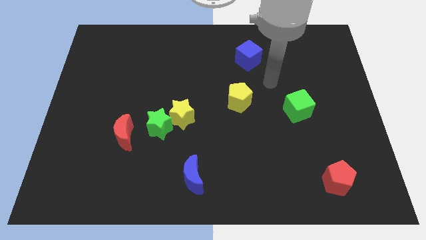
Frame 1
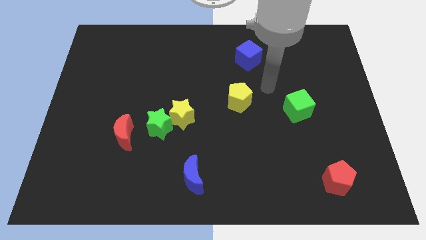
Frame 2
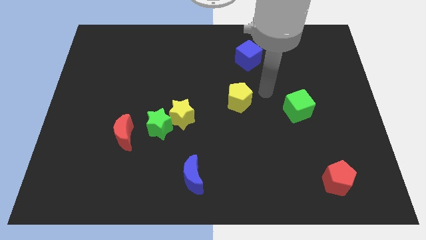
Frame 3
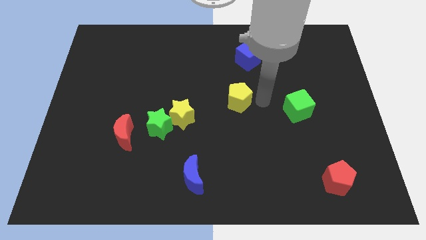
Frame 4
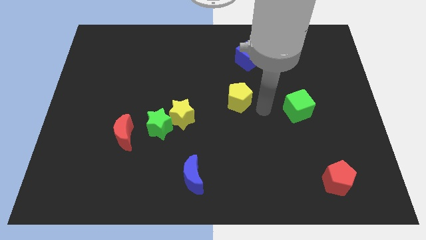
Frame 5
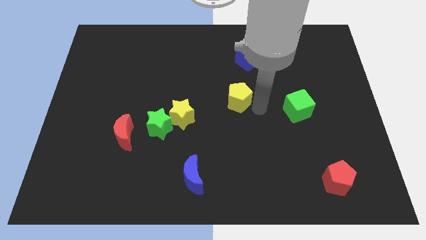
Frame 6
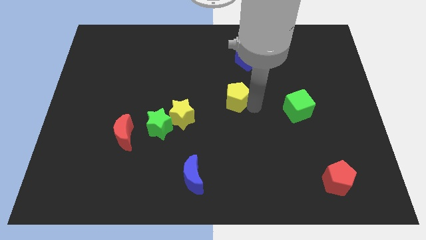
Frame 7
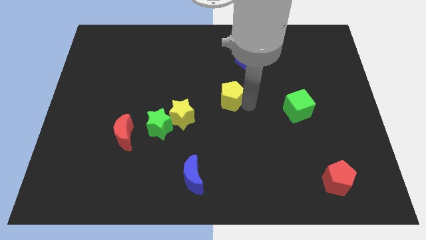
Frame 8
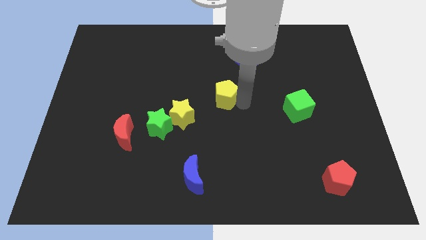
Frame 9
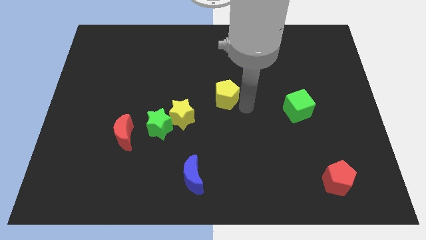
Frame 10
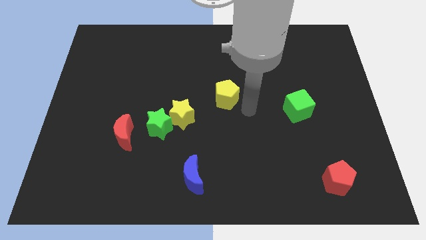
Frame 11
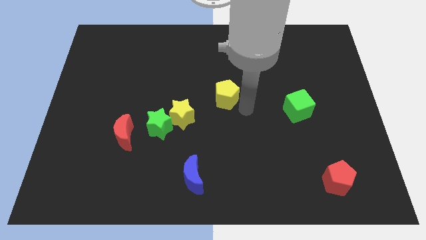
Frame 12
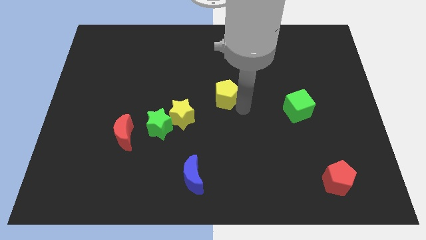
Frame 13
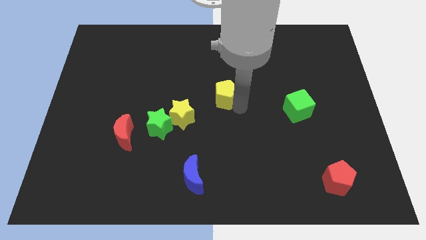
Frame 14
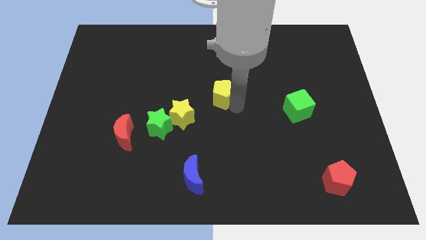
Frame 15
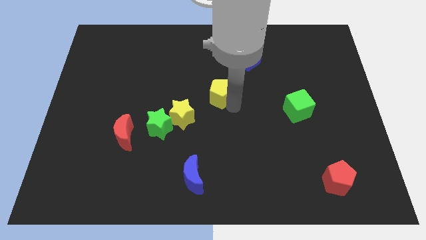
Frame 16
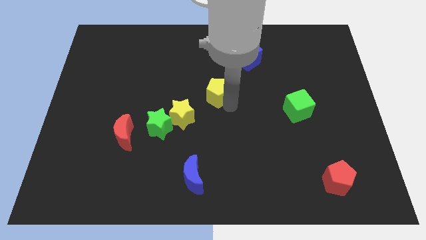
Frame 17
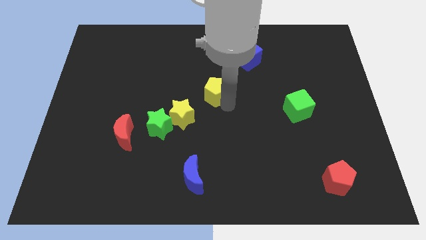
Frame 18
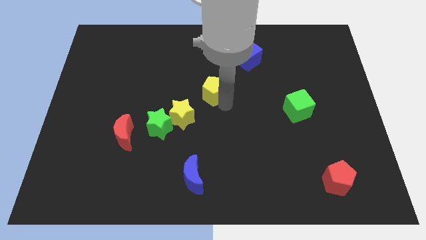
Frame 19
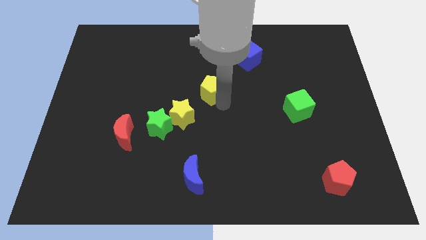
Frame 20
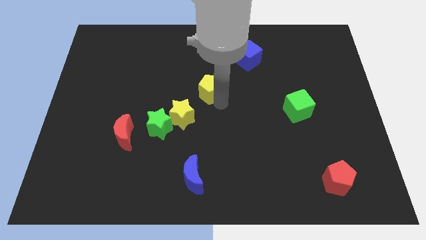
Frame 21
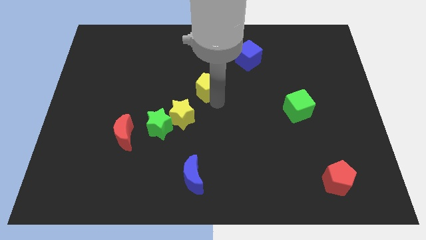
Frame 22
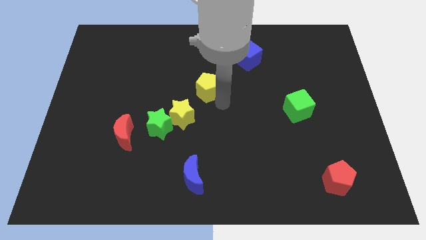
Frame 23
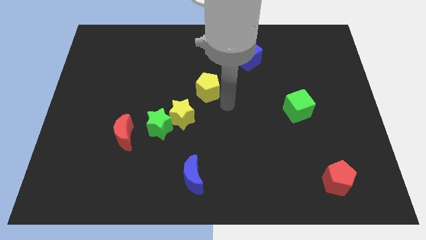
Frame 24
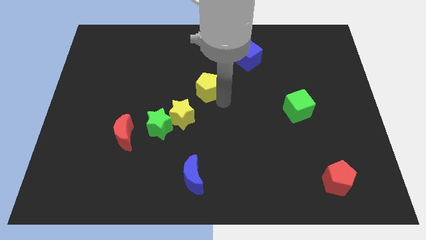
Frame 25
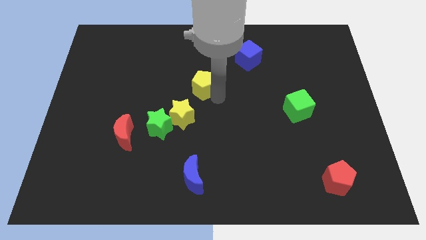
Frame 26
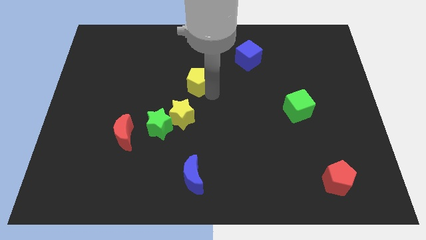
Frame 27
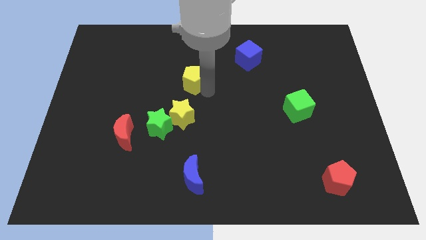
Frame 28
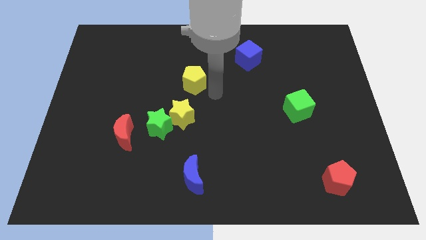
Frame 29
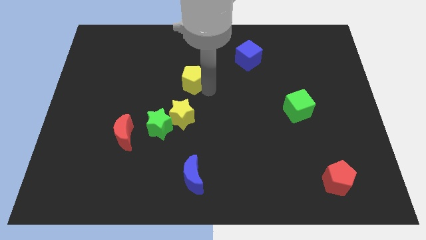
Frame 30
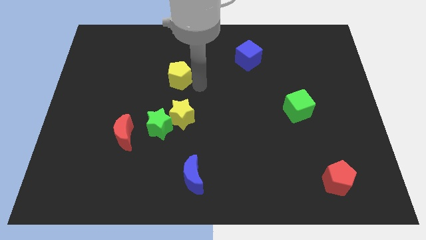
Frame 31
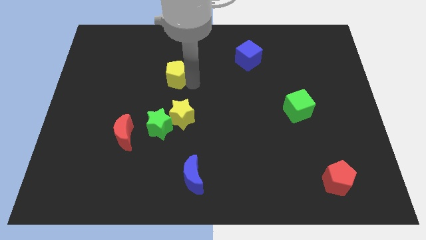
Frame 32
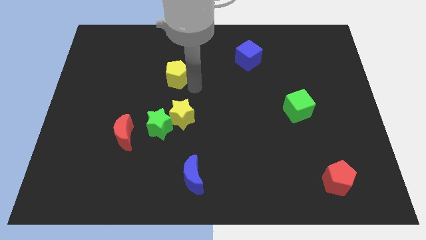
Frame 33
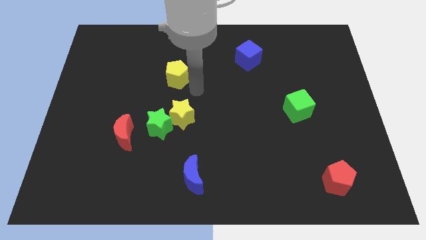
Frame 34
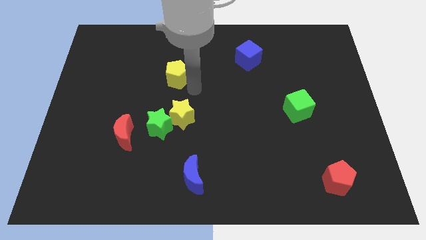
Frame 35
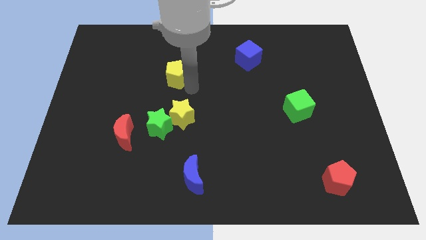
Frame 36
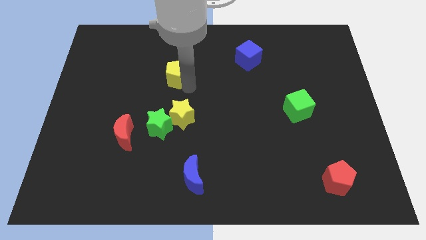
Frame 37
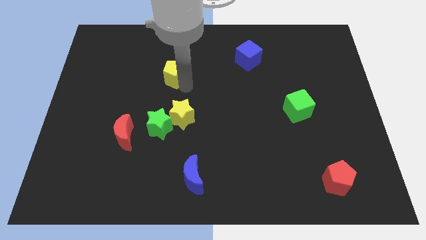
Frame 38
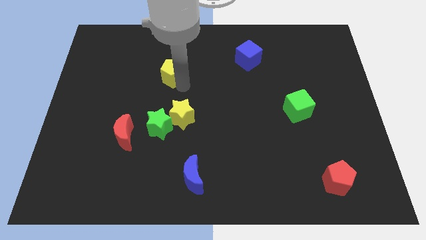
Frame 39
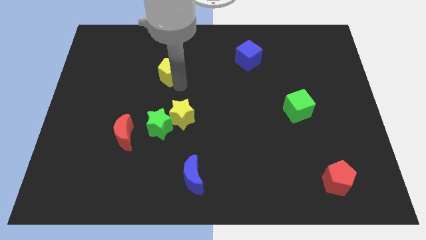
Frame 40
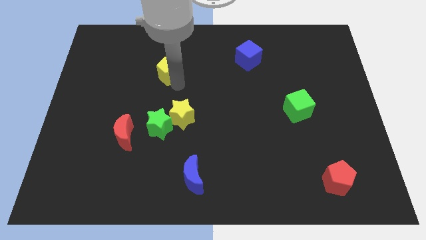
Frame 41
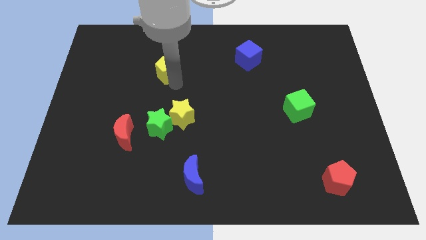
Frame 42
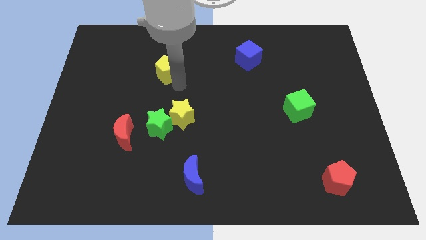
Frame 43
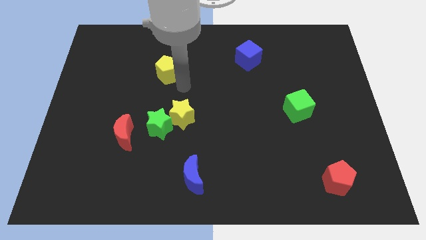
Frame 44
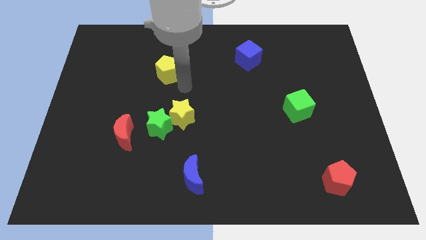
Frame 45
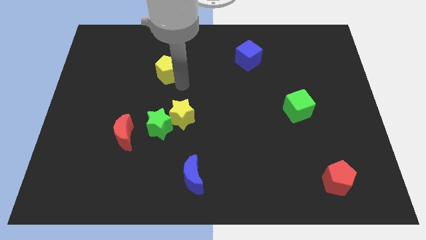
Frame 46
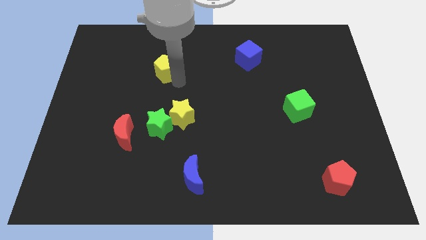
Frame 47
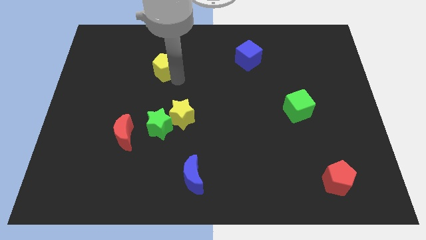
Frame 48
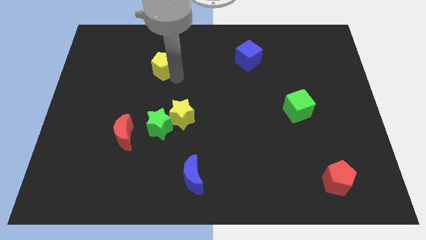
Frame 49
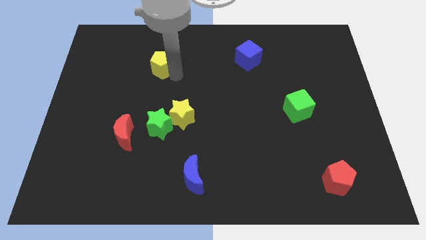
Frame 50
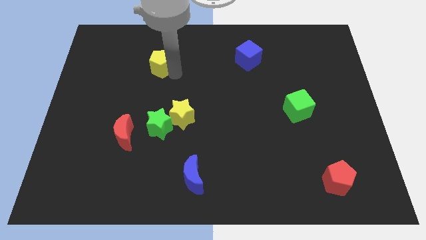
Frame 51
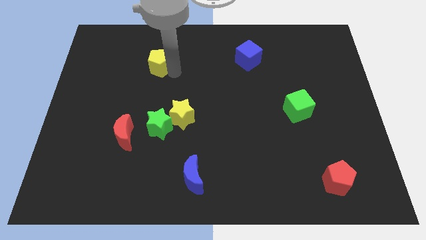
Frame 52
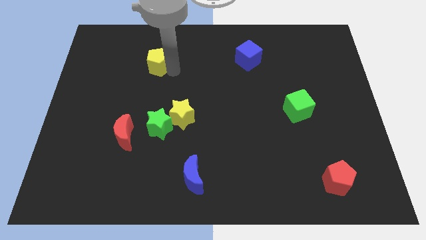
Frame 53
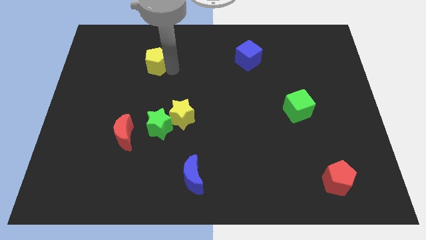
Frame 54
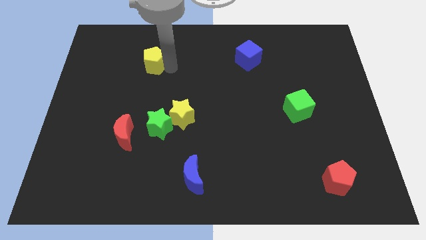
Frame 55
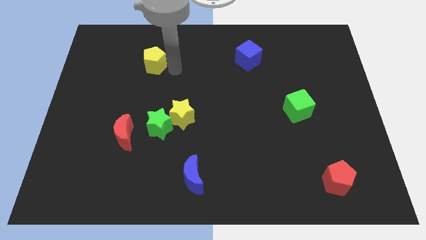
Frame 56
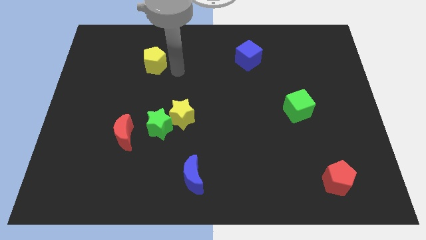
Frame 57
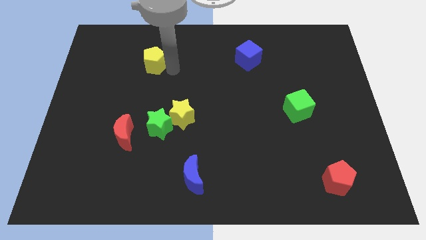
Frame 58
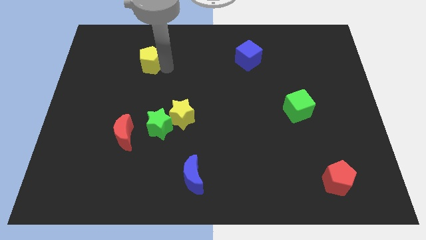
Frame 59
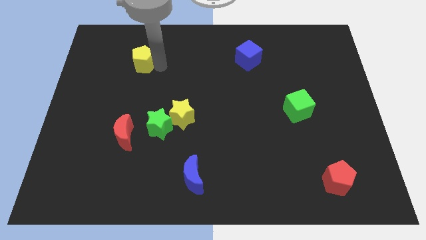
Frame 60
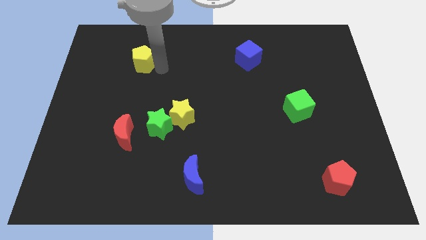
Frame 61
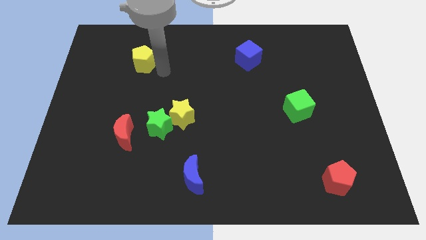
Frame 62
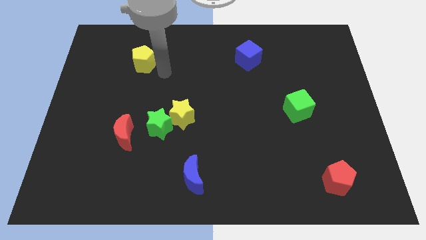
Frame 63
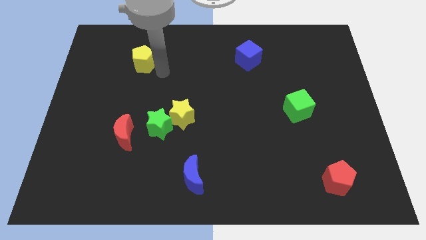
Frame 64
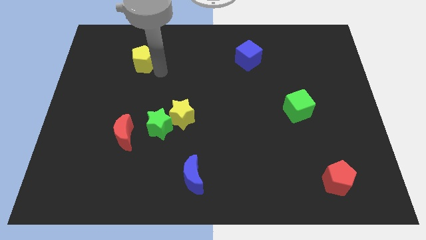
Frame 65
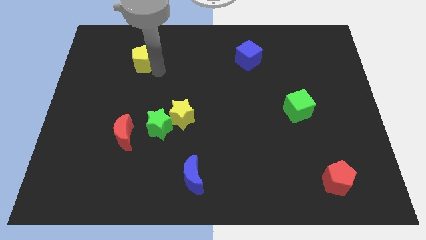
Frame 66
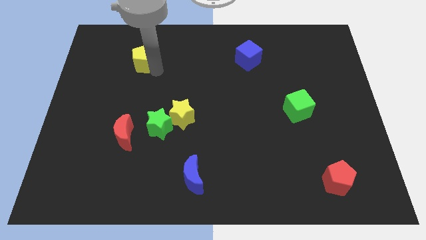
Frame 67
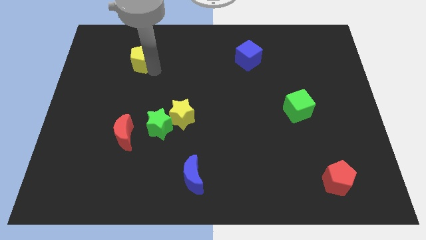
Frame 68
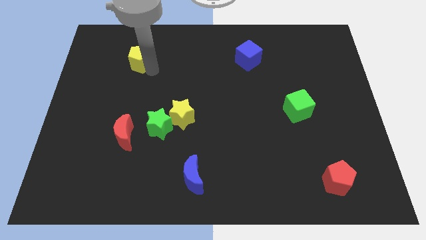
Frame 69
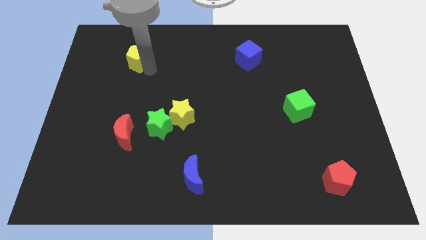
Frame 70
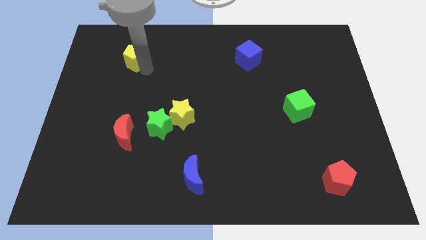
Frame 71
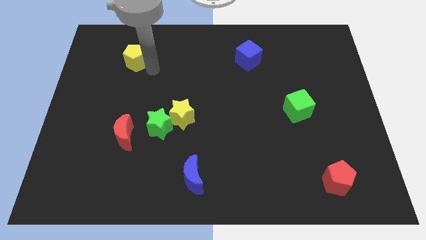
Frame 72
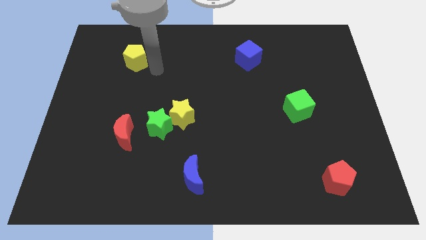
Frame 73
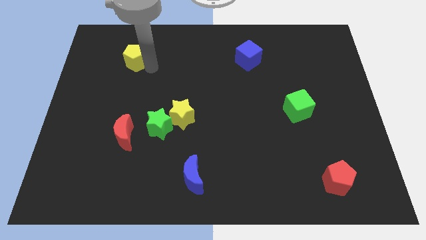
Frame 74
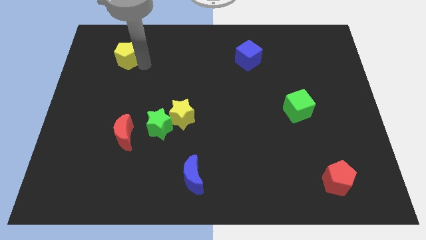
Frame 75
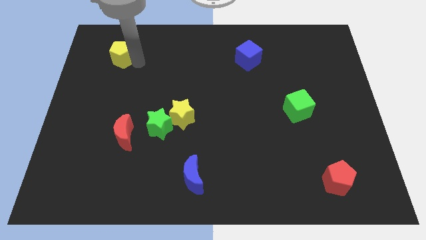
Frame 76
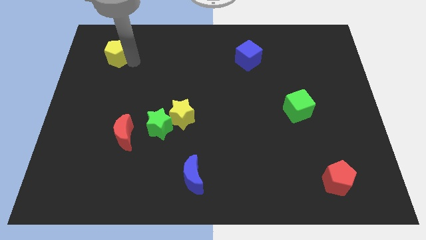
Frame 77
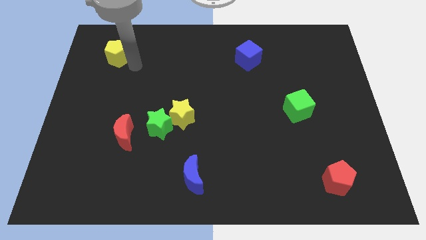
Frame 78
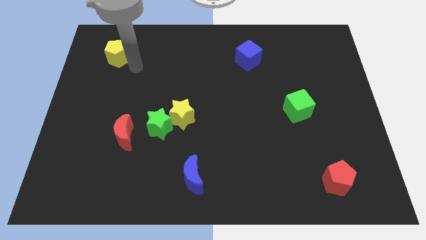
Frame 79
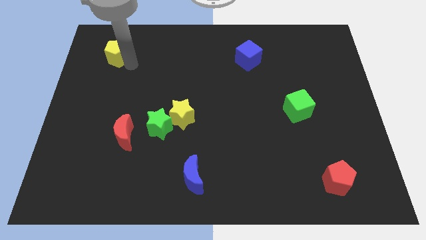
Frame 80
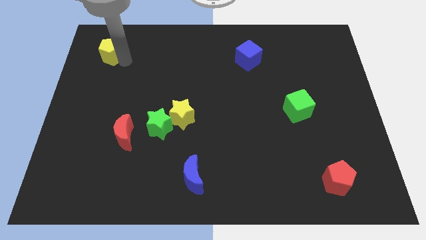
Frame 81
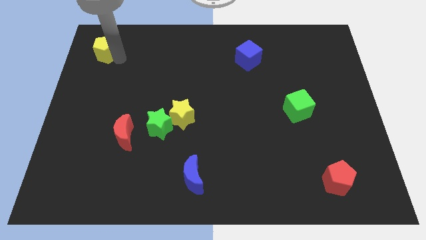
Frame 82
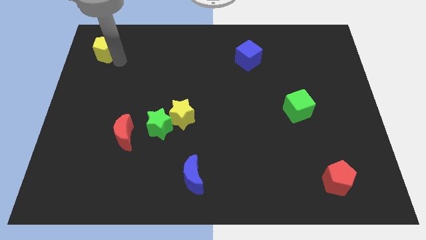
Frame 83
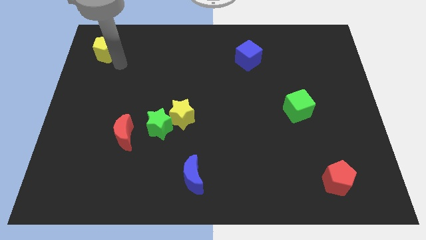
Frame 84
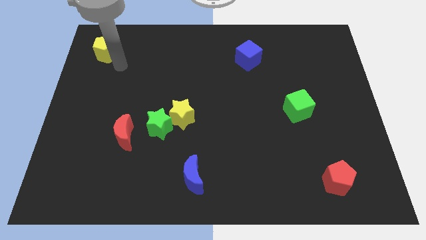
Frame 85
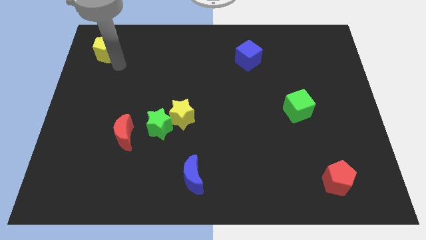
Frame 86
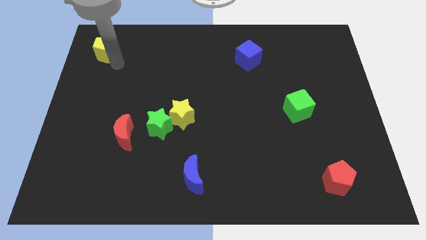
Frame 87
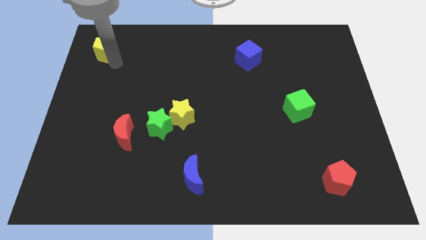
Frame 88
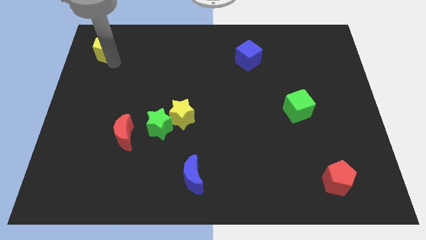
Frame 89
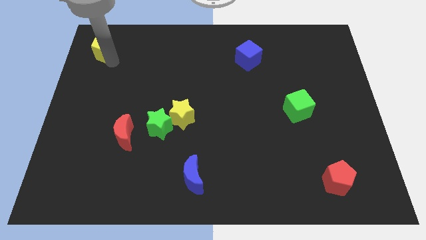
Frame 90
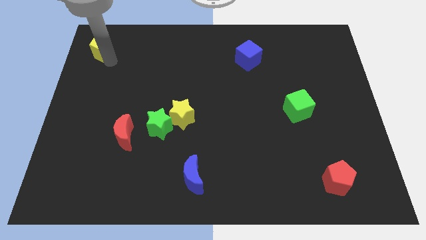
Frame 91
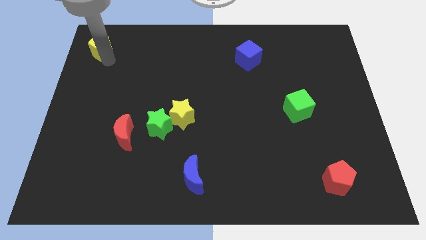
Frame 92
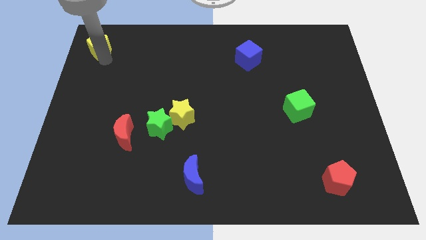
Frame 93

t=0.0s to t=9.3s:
move the yellow pentagon to the top left of the board
